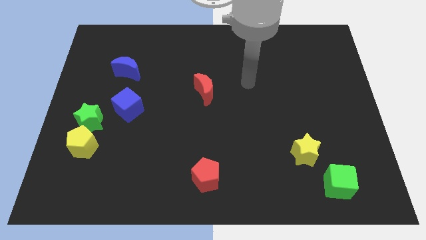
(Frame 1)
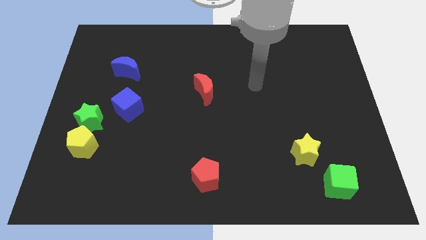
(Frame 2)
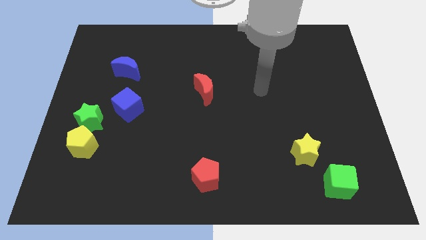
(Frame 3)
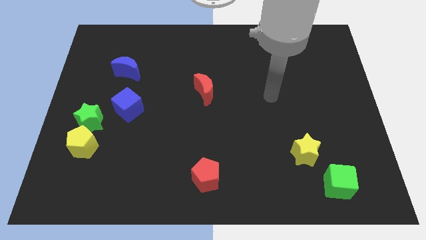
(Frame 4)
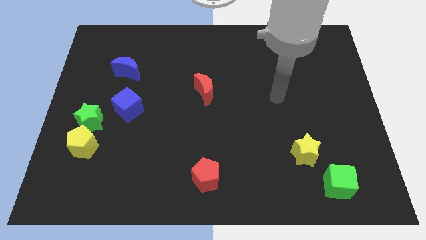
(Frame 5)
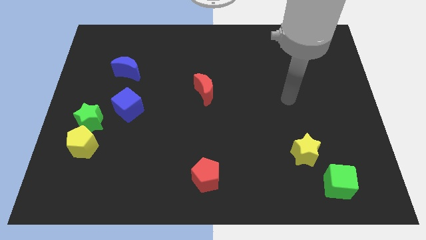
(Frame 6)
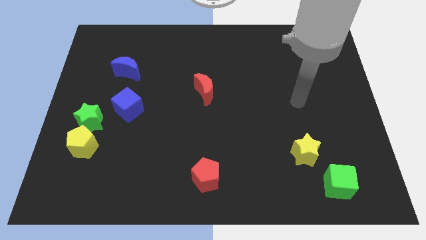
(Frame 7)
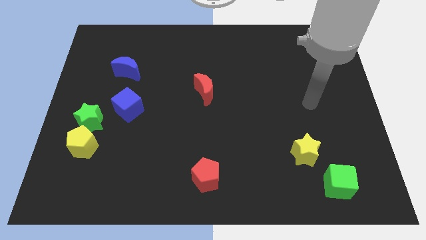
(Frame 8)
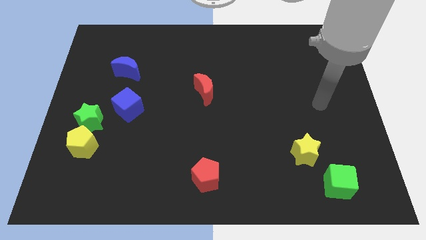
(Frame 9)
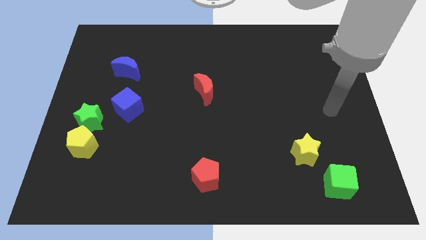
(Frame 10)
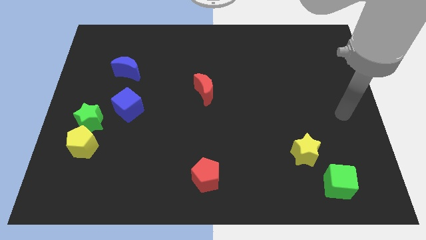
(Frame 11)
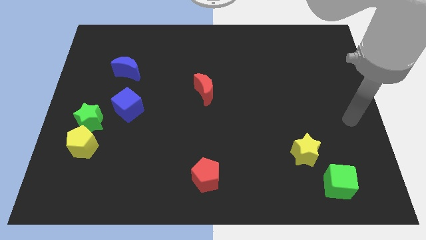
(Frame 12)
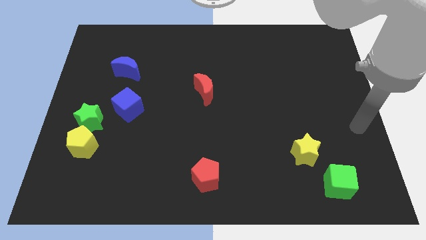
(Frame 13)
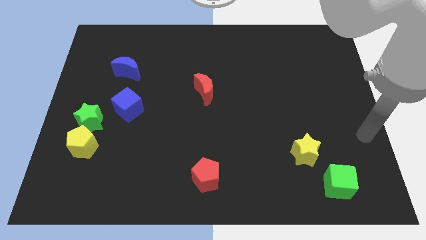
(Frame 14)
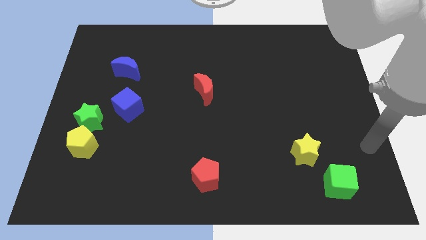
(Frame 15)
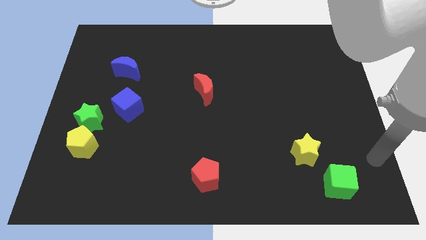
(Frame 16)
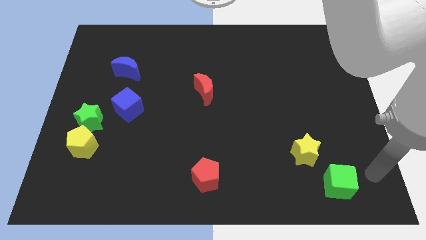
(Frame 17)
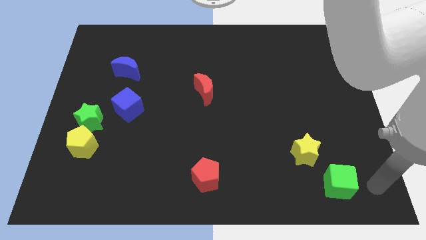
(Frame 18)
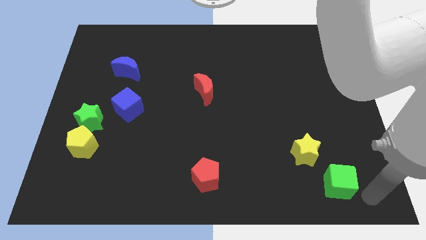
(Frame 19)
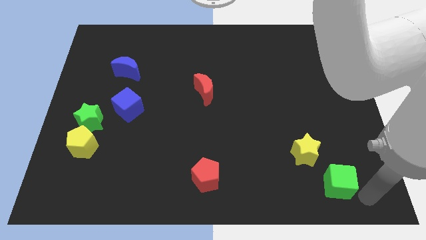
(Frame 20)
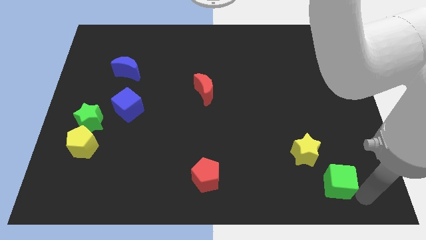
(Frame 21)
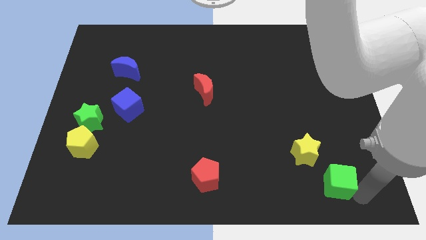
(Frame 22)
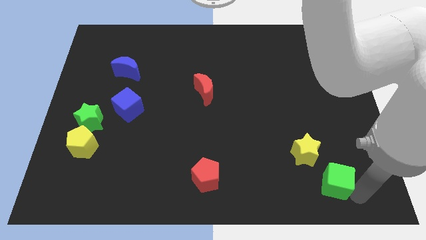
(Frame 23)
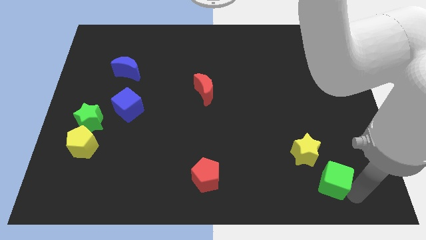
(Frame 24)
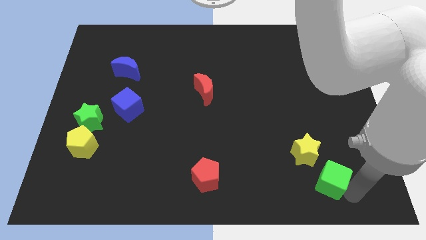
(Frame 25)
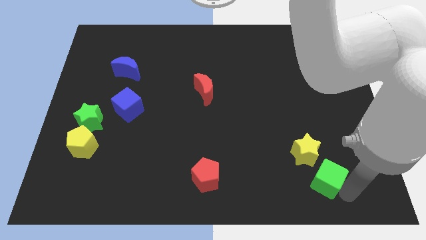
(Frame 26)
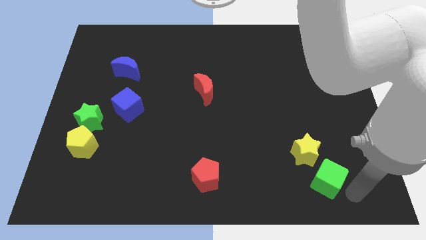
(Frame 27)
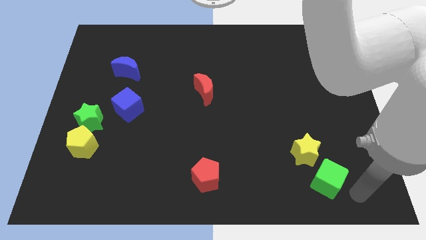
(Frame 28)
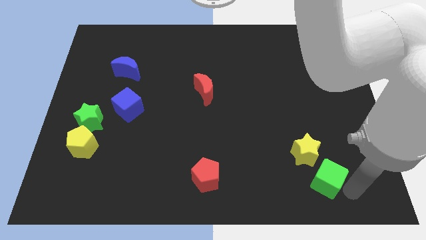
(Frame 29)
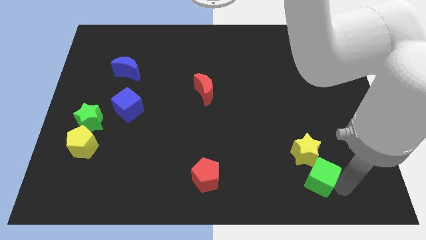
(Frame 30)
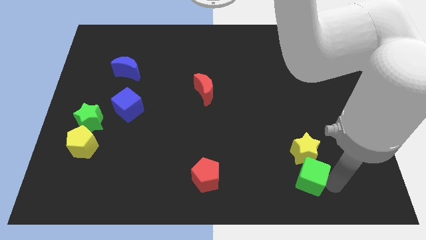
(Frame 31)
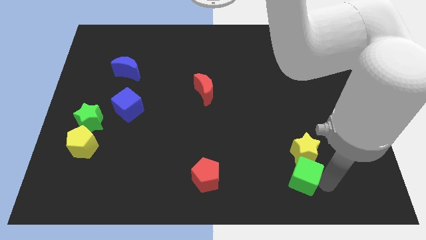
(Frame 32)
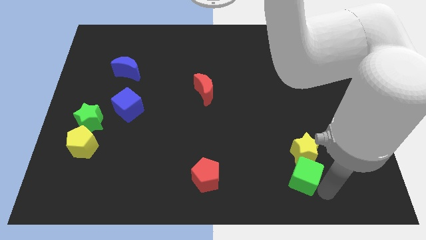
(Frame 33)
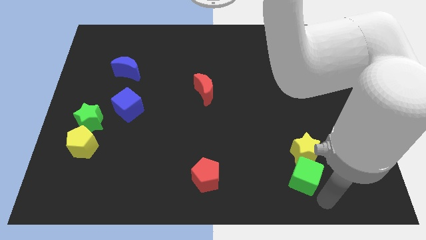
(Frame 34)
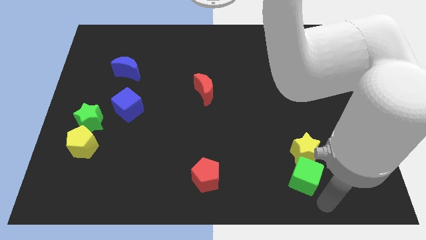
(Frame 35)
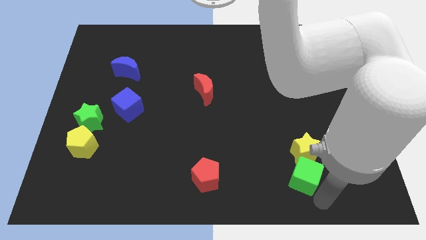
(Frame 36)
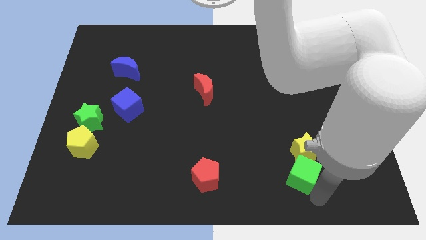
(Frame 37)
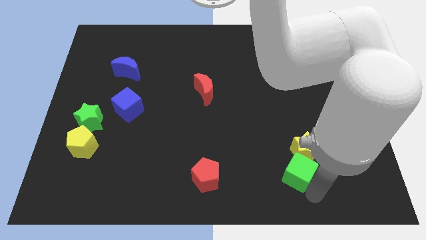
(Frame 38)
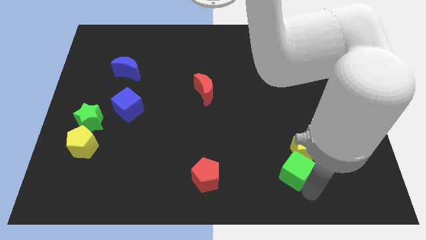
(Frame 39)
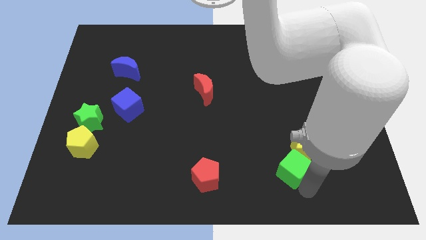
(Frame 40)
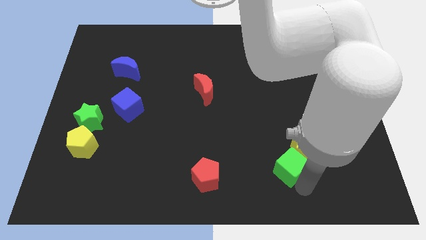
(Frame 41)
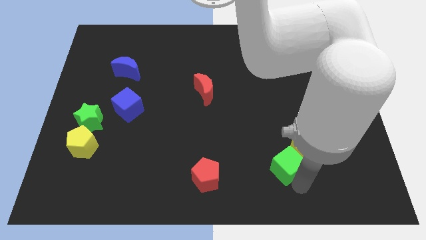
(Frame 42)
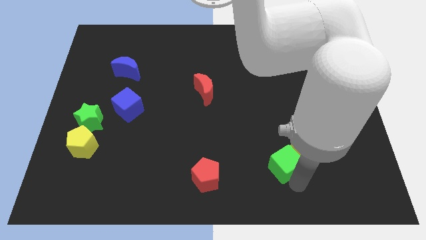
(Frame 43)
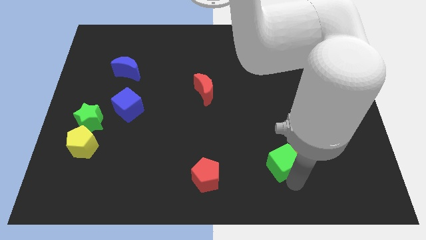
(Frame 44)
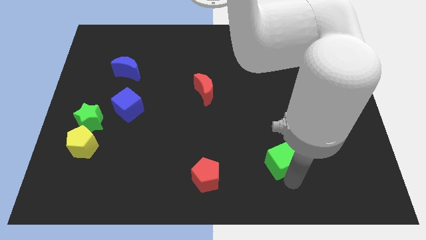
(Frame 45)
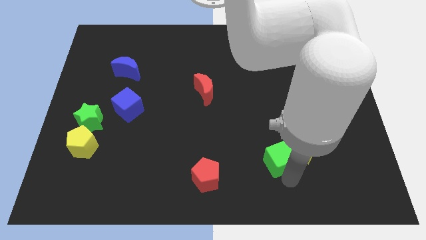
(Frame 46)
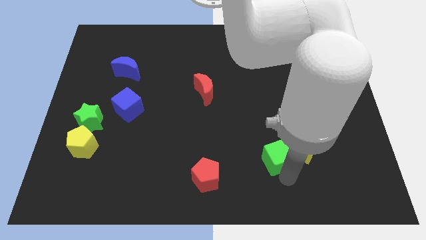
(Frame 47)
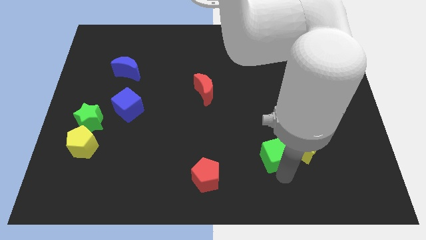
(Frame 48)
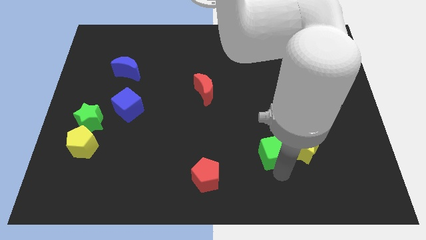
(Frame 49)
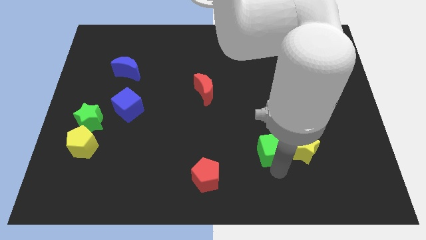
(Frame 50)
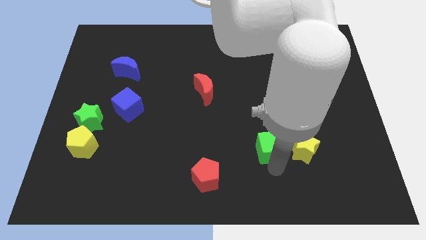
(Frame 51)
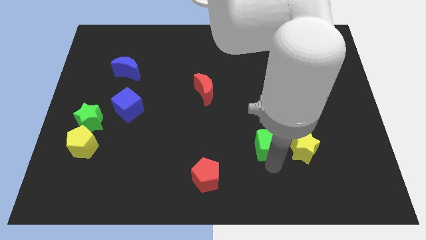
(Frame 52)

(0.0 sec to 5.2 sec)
move the green cube diagonally up and to the left of the yellow star

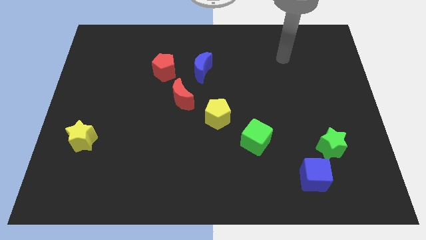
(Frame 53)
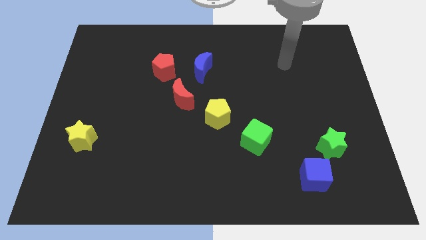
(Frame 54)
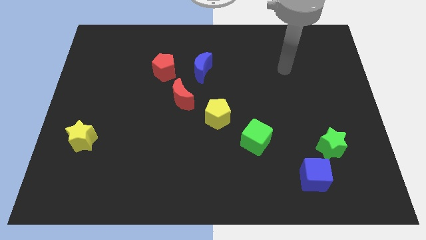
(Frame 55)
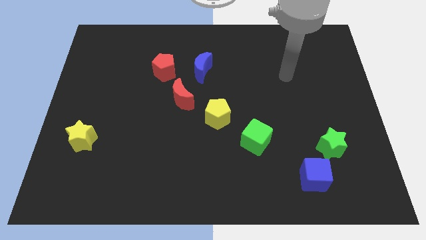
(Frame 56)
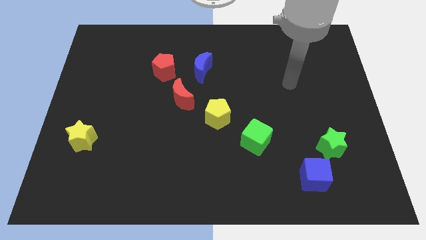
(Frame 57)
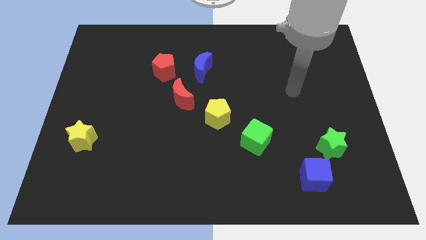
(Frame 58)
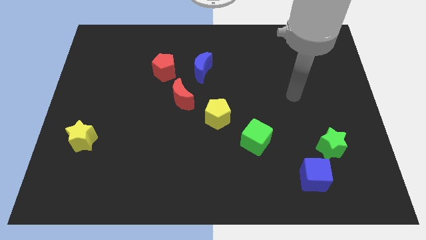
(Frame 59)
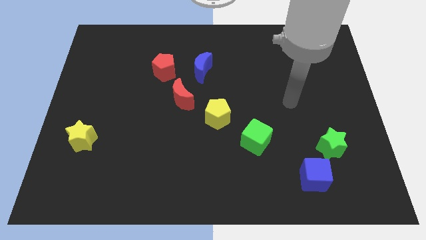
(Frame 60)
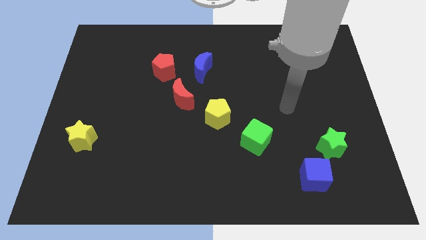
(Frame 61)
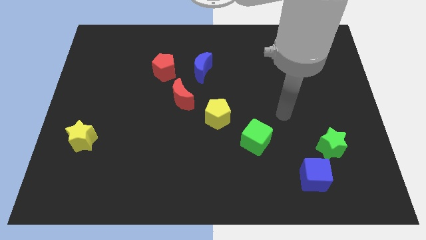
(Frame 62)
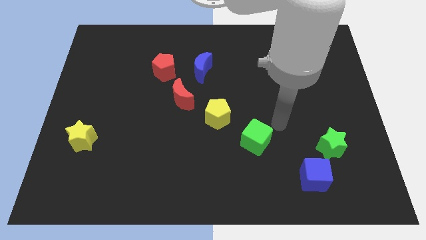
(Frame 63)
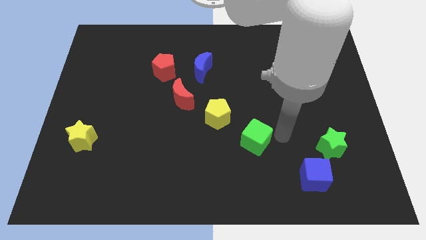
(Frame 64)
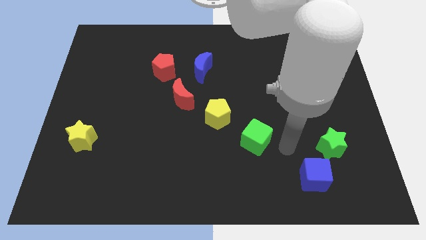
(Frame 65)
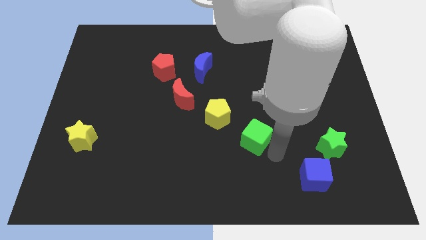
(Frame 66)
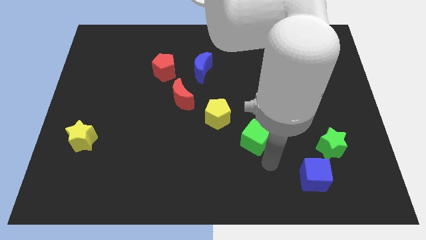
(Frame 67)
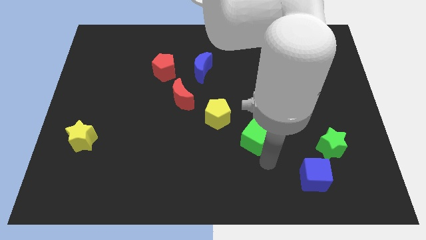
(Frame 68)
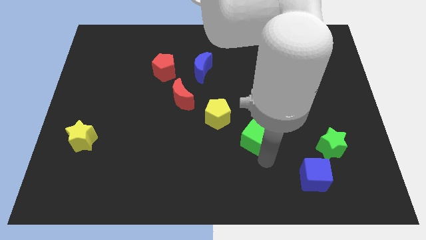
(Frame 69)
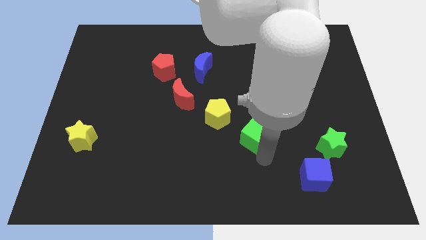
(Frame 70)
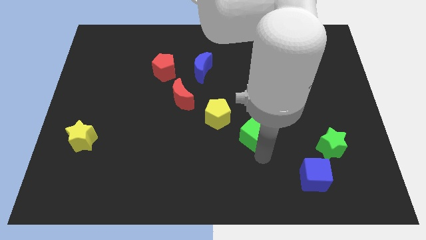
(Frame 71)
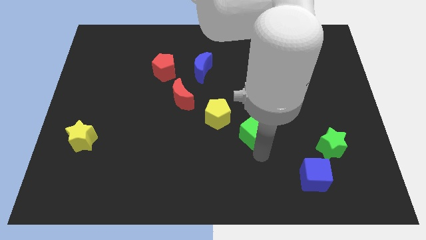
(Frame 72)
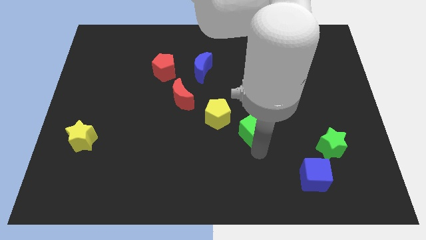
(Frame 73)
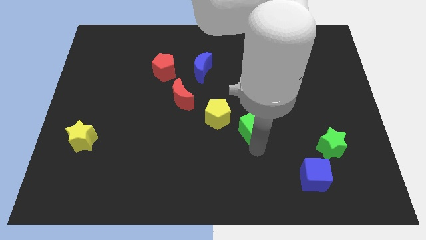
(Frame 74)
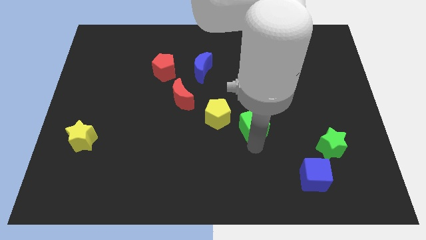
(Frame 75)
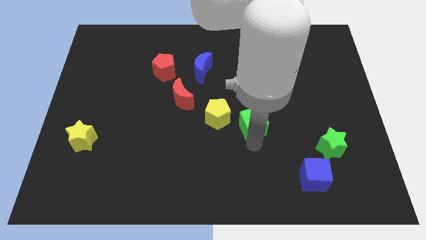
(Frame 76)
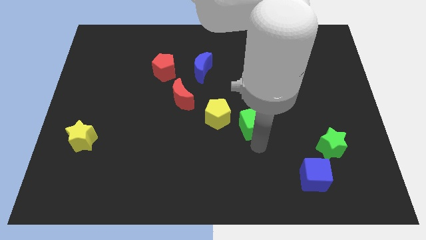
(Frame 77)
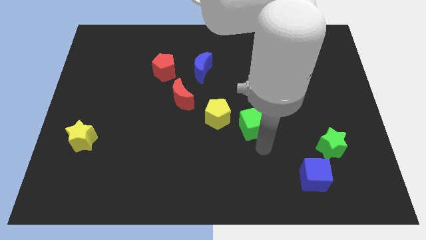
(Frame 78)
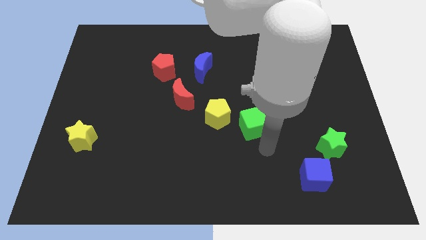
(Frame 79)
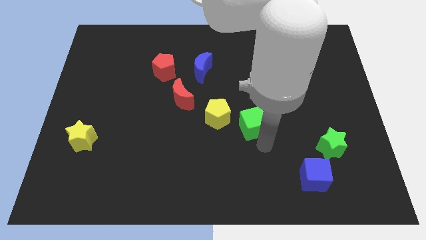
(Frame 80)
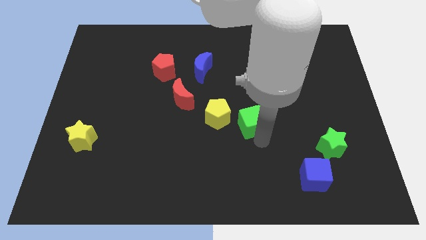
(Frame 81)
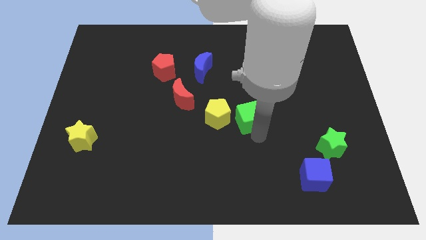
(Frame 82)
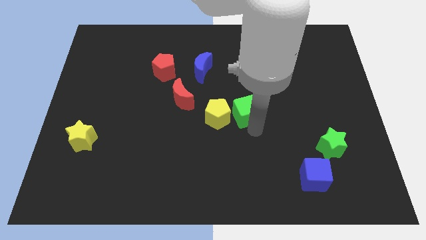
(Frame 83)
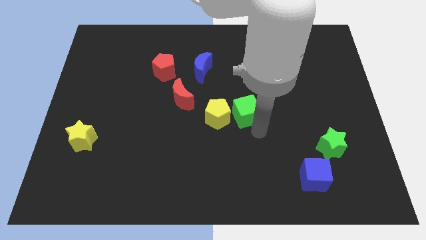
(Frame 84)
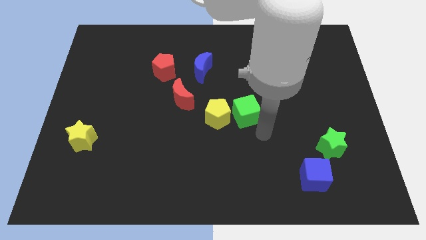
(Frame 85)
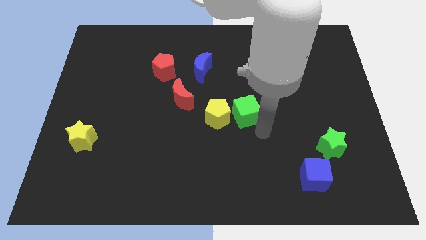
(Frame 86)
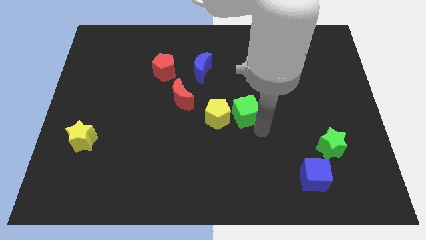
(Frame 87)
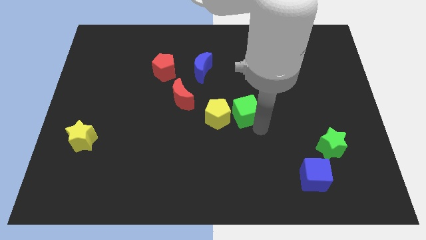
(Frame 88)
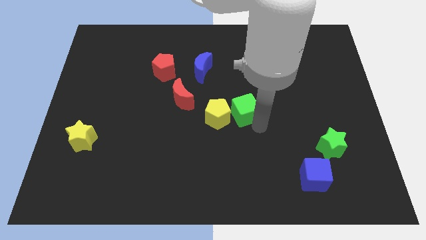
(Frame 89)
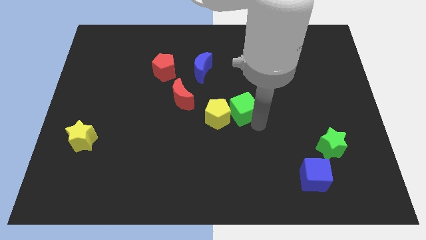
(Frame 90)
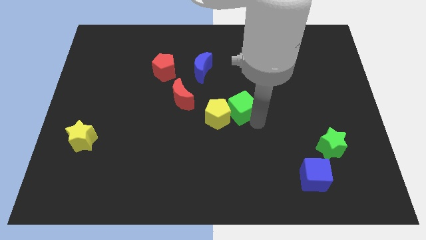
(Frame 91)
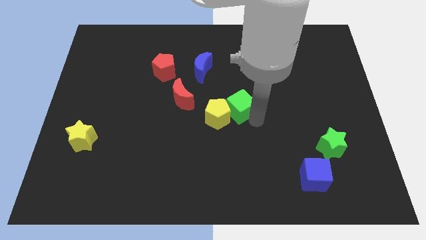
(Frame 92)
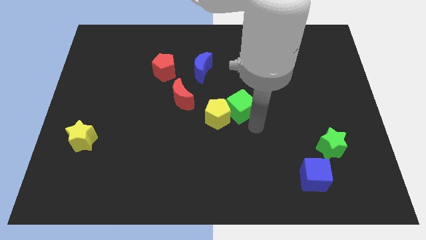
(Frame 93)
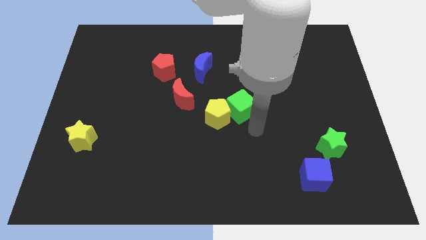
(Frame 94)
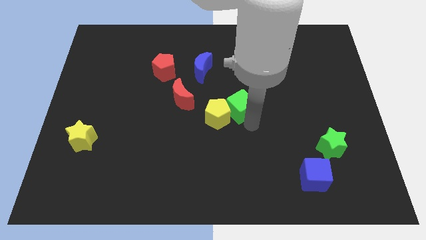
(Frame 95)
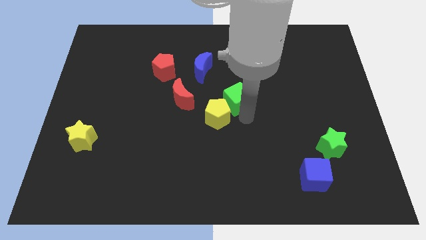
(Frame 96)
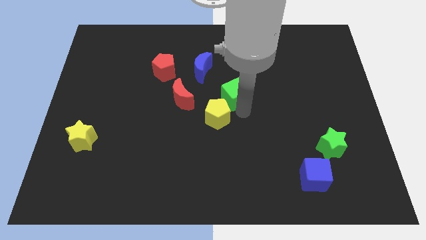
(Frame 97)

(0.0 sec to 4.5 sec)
put the green cube to the bottom right side of the blue moon
